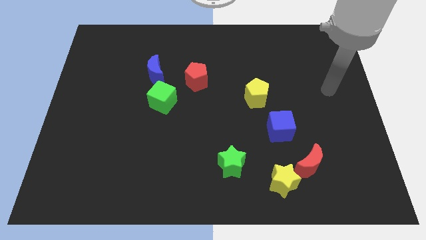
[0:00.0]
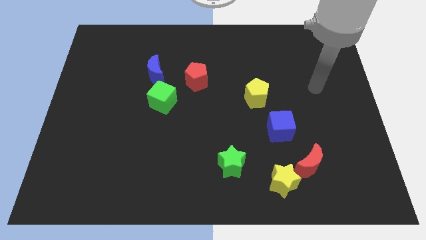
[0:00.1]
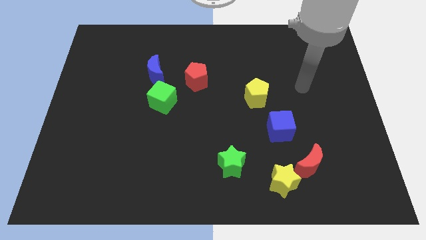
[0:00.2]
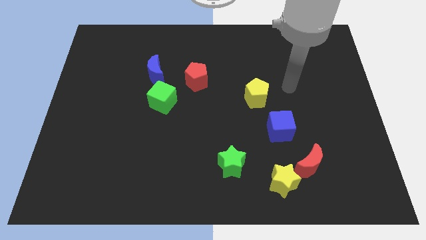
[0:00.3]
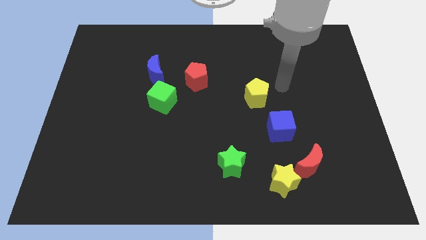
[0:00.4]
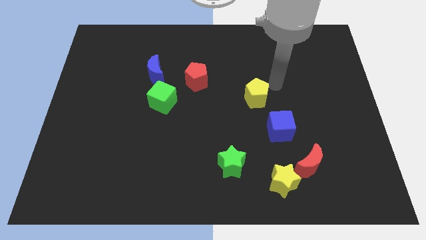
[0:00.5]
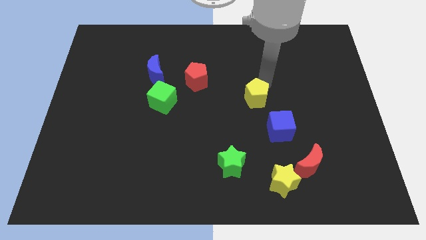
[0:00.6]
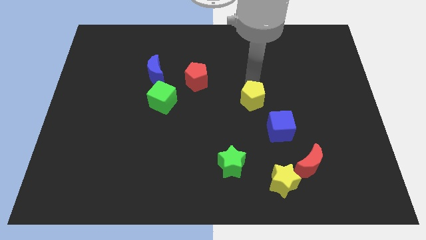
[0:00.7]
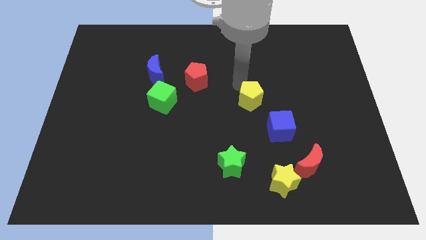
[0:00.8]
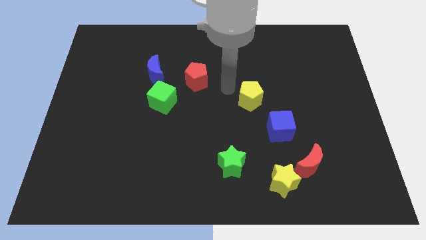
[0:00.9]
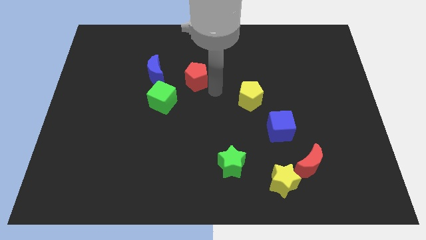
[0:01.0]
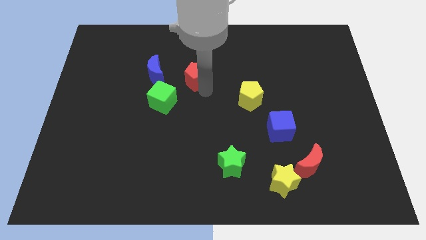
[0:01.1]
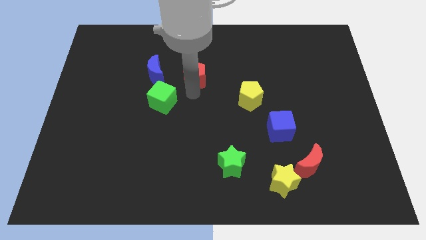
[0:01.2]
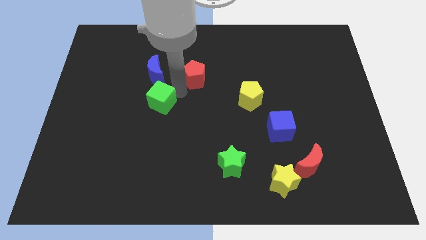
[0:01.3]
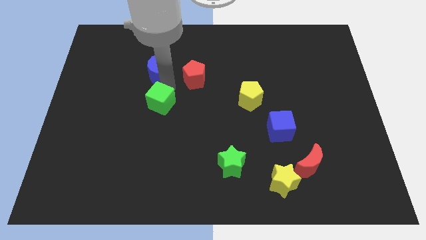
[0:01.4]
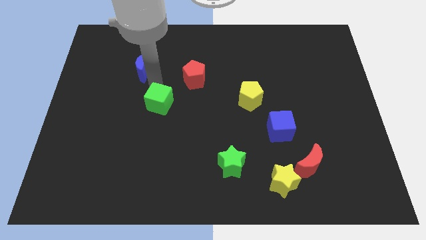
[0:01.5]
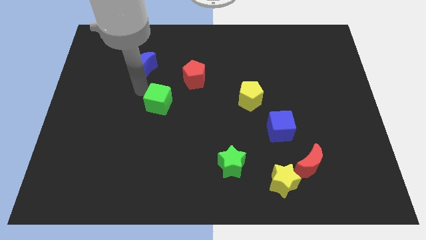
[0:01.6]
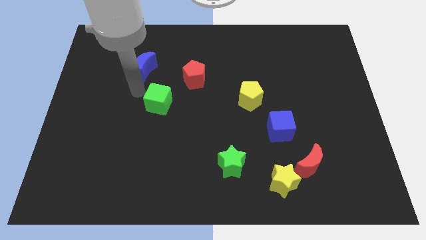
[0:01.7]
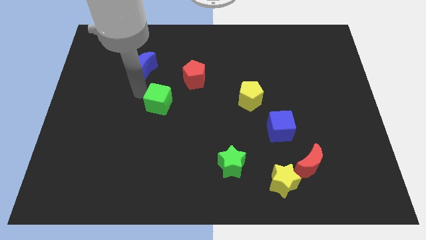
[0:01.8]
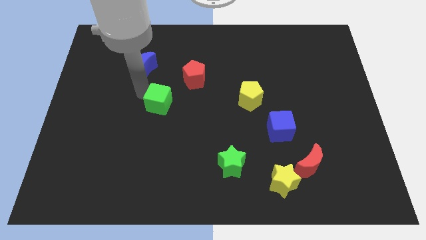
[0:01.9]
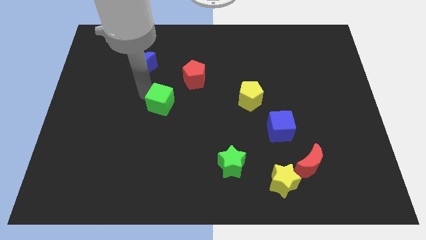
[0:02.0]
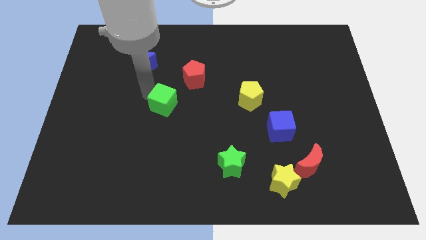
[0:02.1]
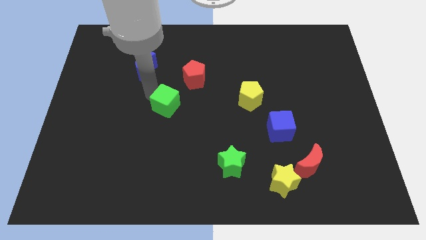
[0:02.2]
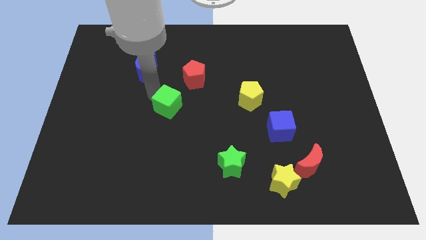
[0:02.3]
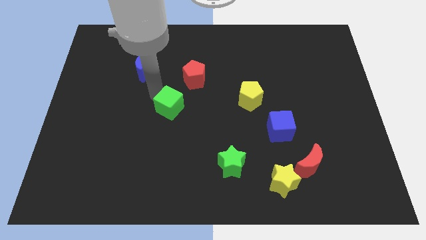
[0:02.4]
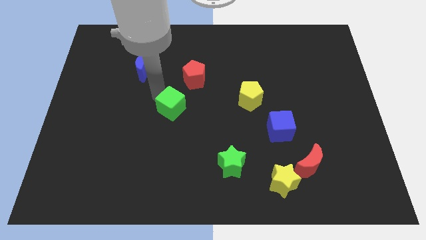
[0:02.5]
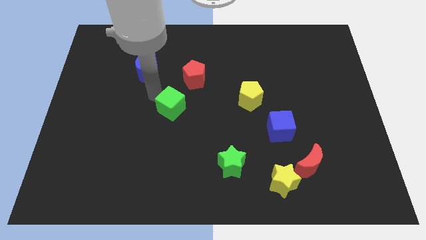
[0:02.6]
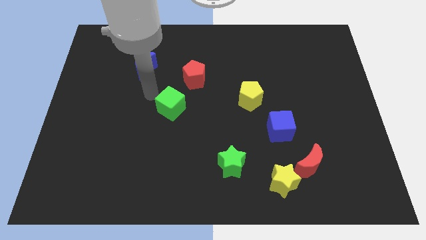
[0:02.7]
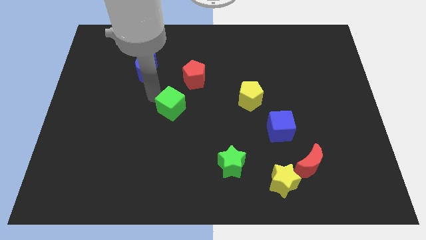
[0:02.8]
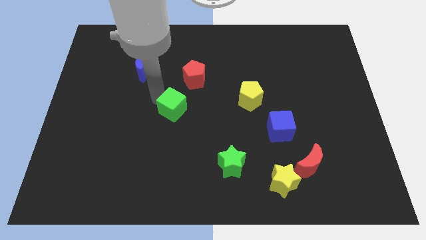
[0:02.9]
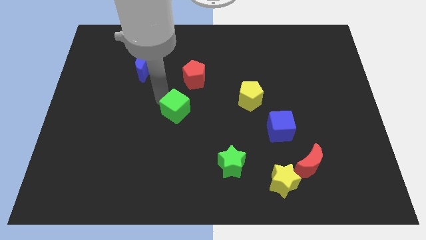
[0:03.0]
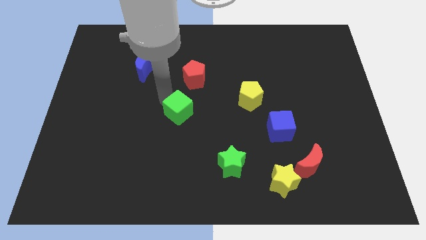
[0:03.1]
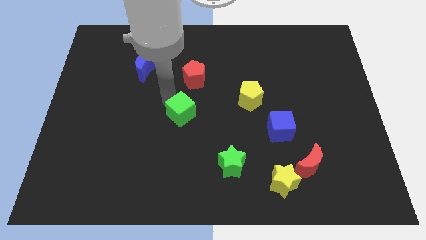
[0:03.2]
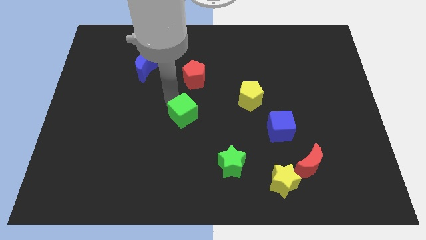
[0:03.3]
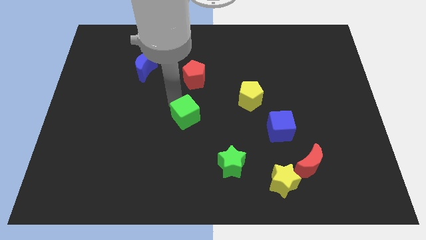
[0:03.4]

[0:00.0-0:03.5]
slightly slide the green cube downwards and to the right

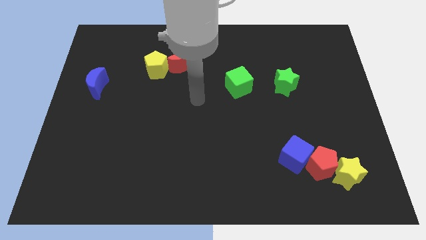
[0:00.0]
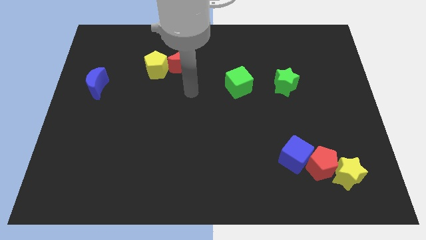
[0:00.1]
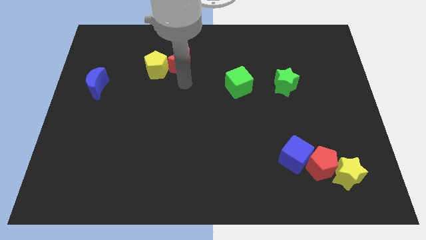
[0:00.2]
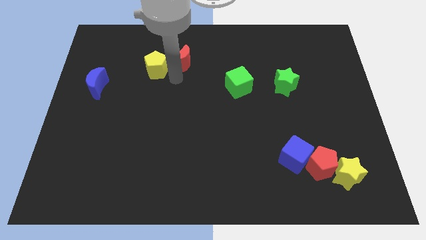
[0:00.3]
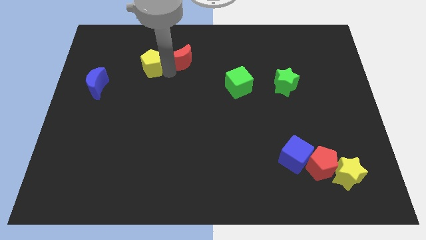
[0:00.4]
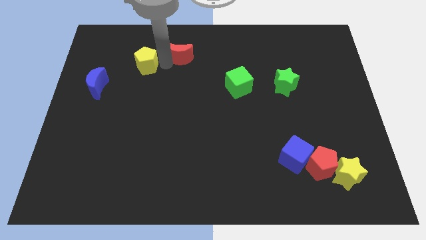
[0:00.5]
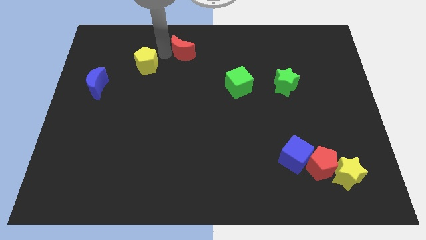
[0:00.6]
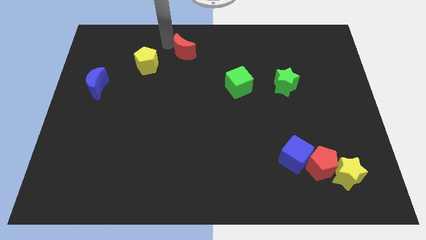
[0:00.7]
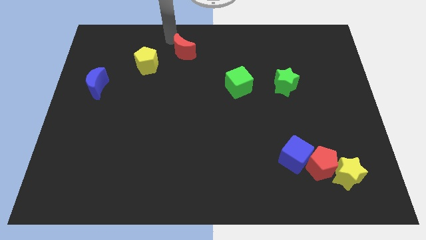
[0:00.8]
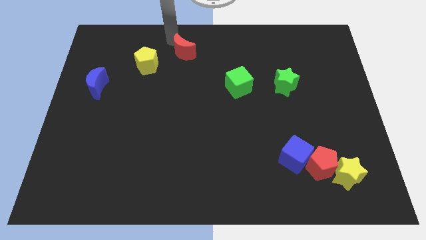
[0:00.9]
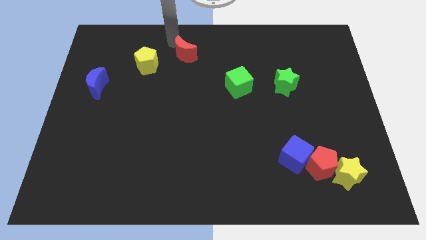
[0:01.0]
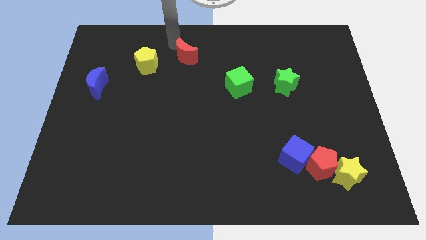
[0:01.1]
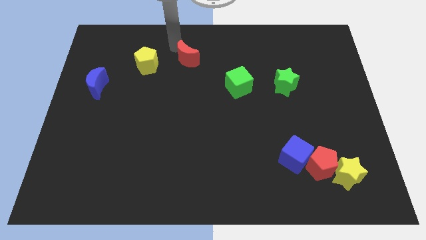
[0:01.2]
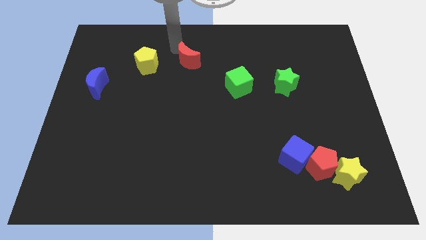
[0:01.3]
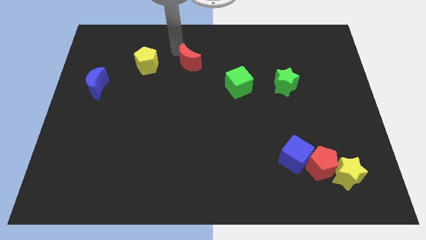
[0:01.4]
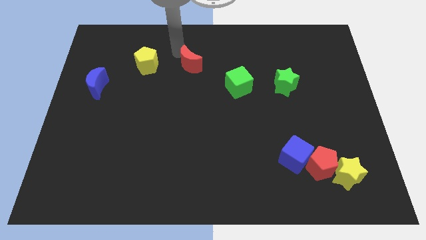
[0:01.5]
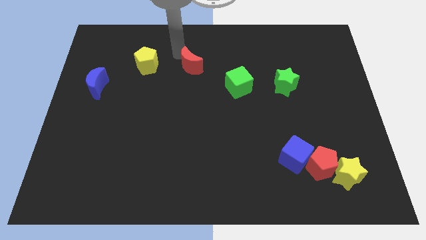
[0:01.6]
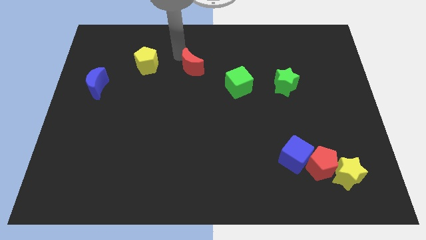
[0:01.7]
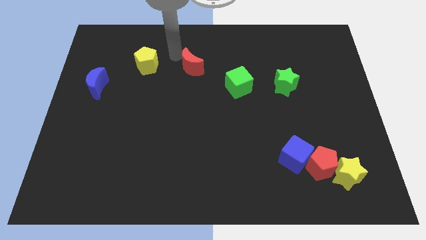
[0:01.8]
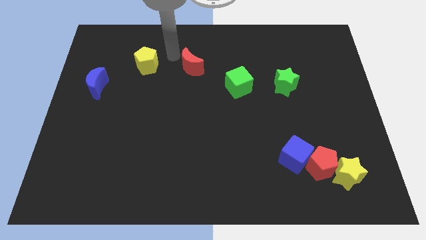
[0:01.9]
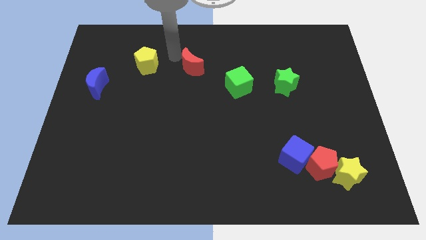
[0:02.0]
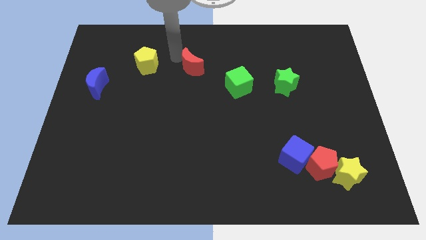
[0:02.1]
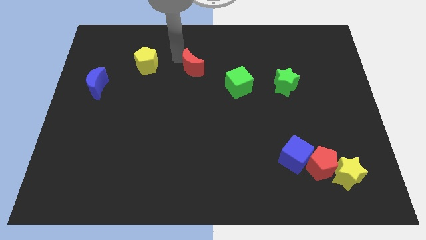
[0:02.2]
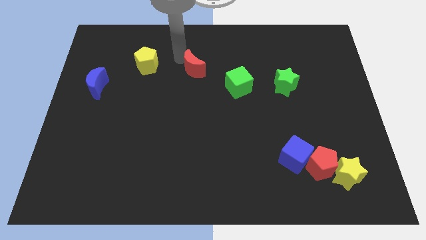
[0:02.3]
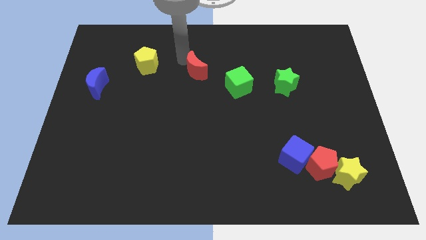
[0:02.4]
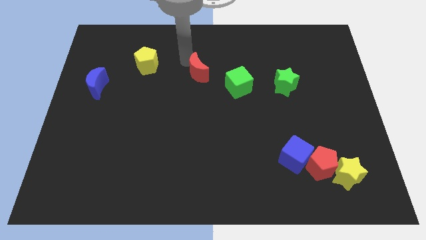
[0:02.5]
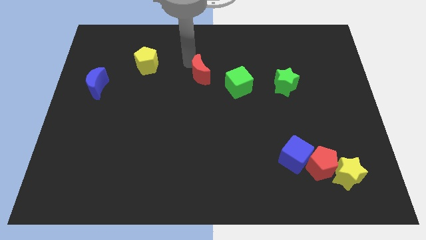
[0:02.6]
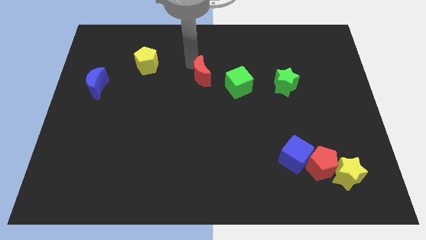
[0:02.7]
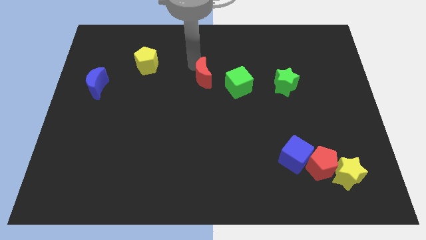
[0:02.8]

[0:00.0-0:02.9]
slightly slide the red moon down and then right

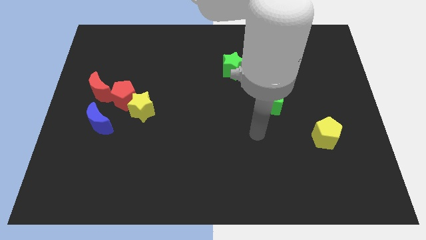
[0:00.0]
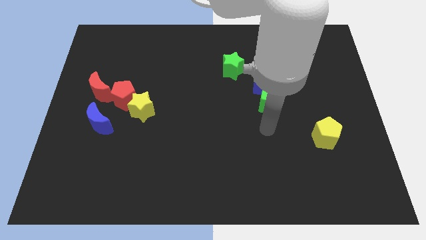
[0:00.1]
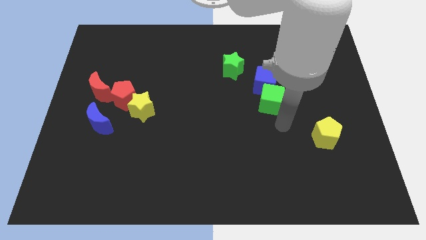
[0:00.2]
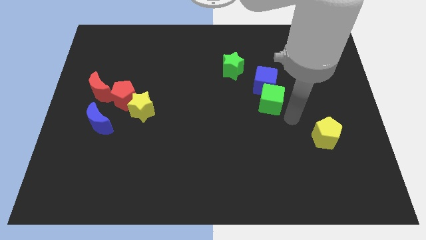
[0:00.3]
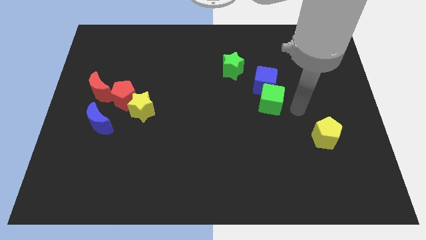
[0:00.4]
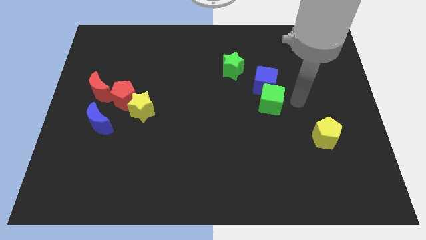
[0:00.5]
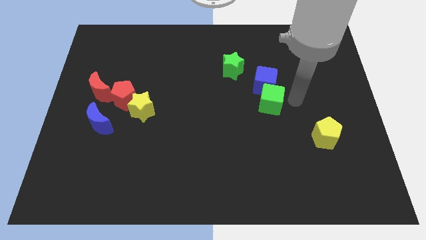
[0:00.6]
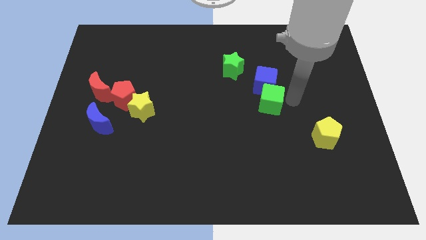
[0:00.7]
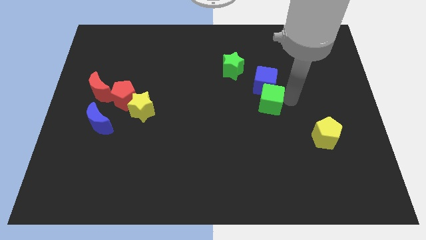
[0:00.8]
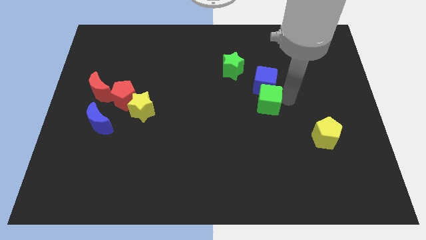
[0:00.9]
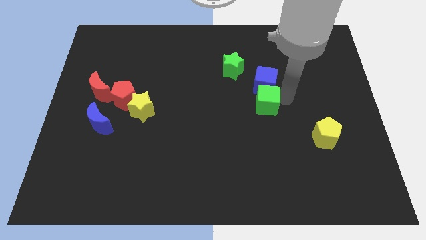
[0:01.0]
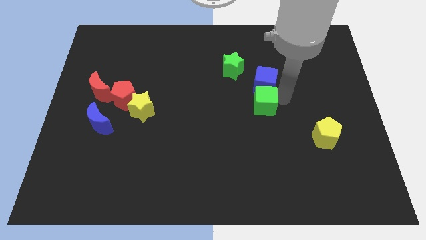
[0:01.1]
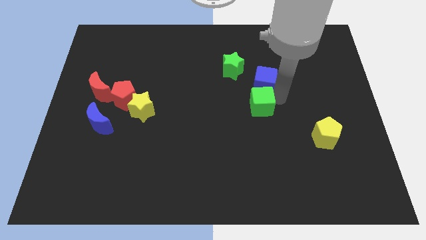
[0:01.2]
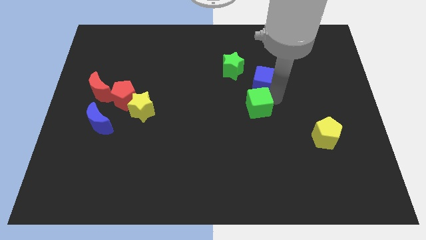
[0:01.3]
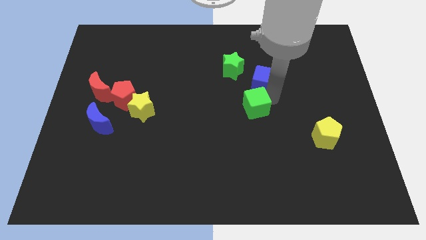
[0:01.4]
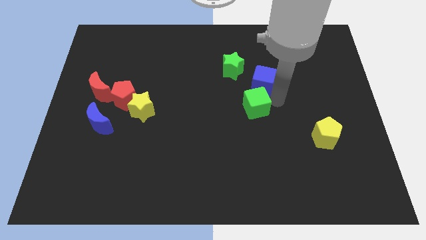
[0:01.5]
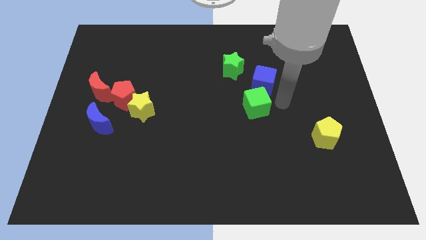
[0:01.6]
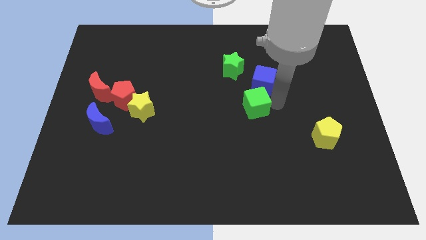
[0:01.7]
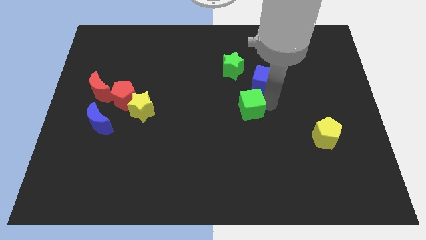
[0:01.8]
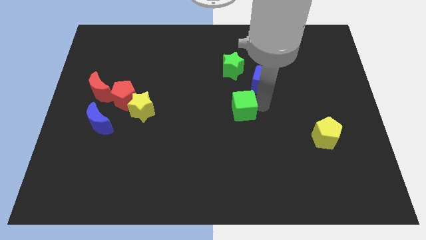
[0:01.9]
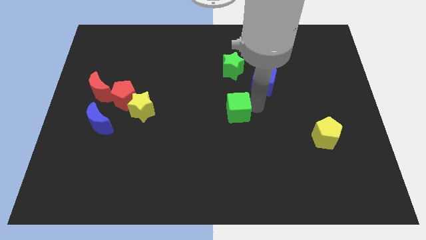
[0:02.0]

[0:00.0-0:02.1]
push the green cube a little bit to the left
